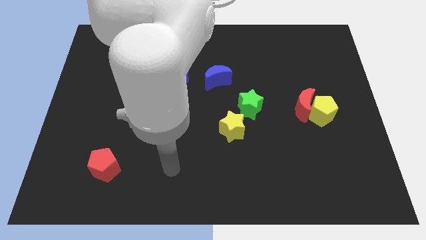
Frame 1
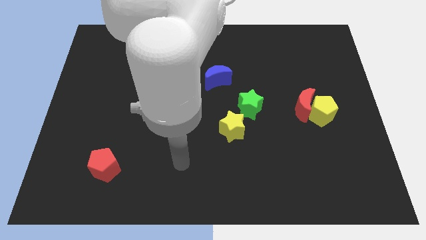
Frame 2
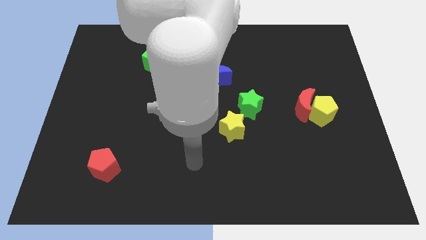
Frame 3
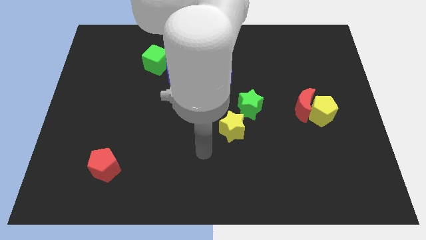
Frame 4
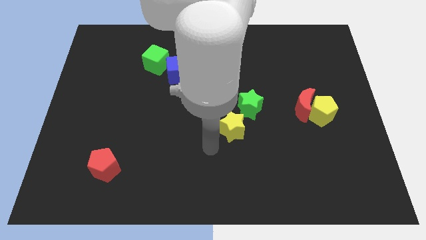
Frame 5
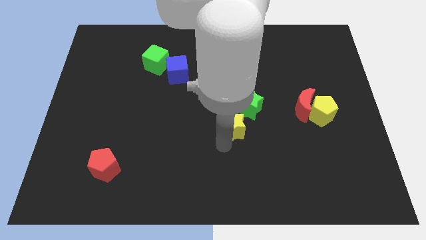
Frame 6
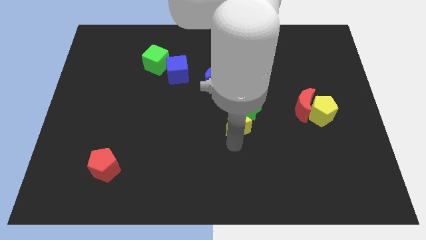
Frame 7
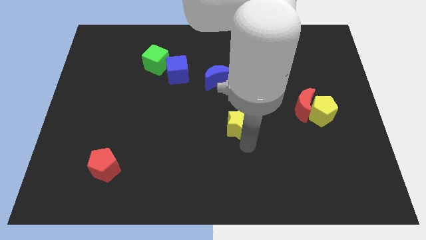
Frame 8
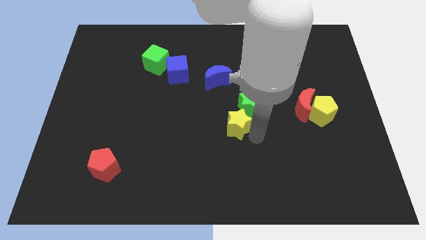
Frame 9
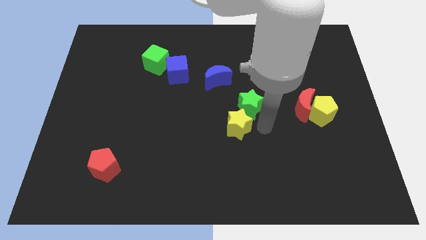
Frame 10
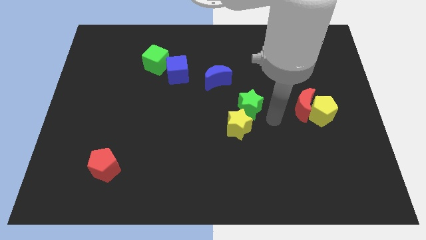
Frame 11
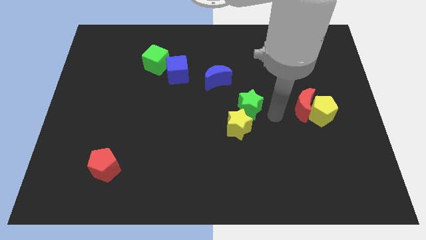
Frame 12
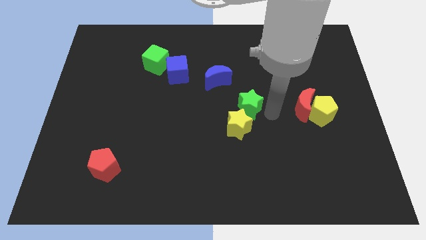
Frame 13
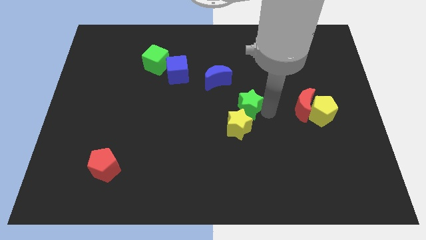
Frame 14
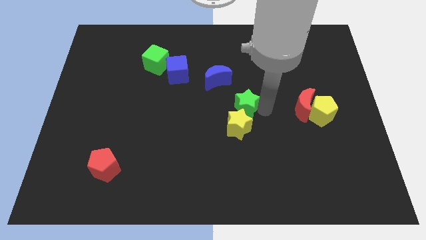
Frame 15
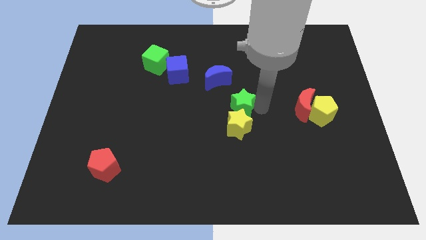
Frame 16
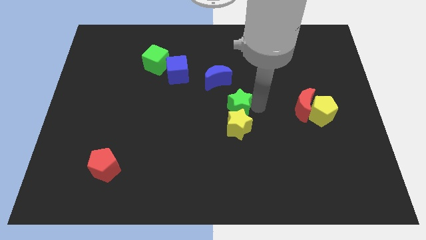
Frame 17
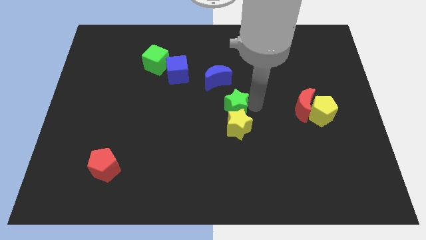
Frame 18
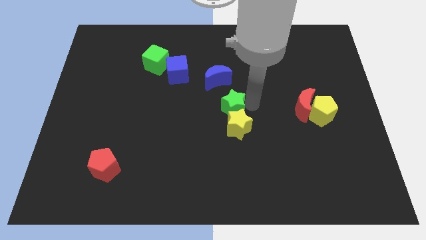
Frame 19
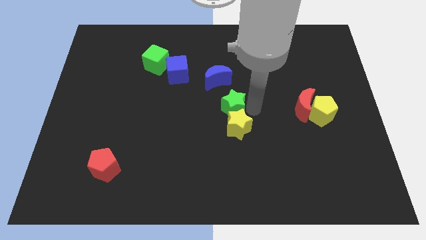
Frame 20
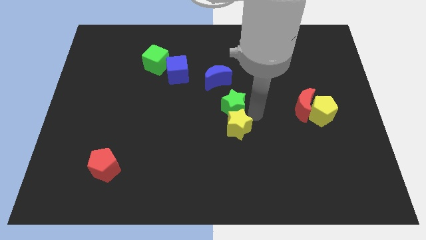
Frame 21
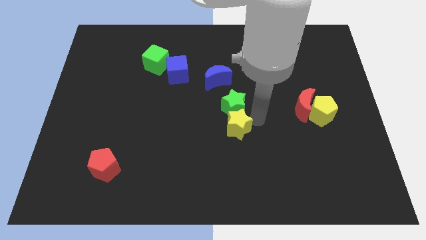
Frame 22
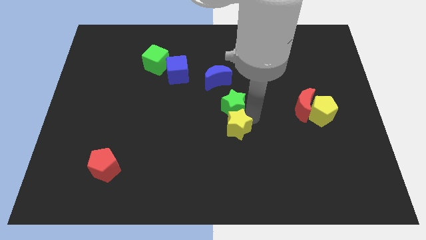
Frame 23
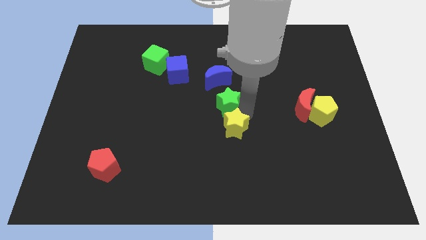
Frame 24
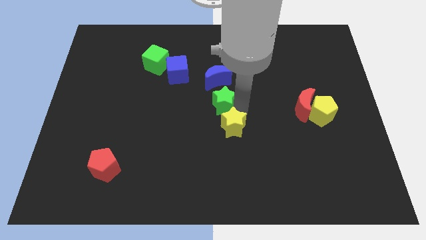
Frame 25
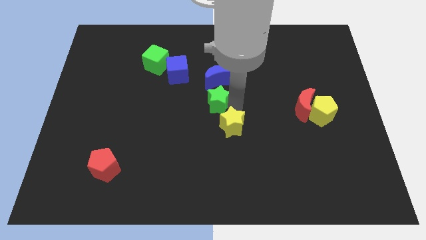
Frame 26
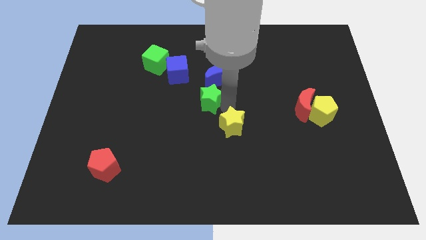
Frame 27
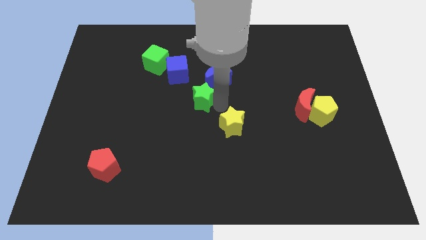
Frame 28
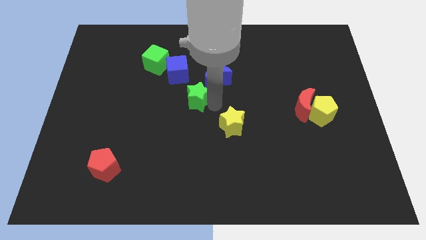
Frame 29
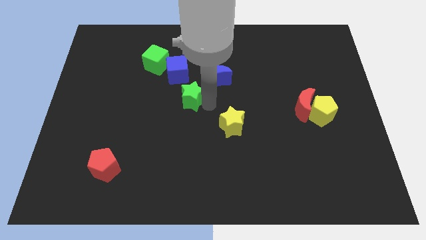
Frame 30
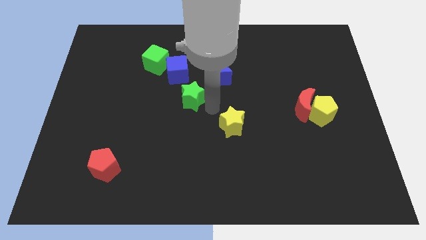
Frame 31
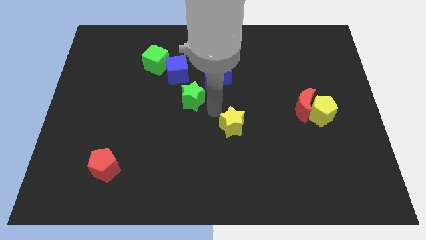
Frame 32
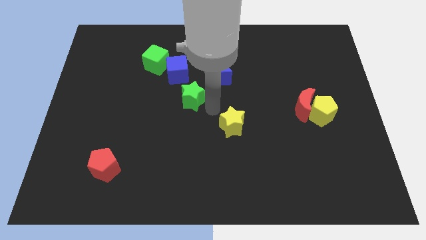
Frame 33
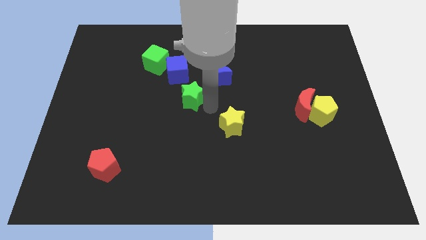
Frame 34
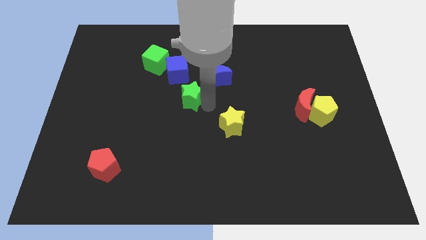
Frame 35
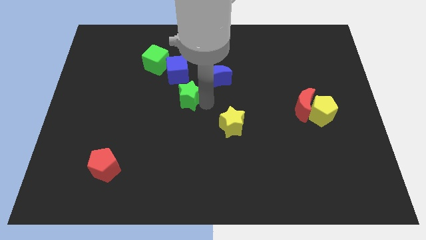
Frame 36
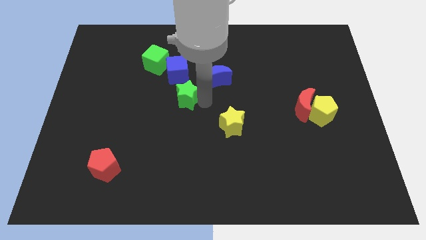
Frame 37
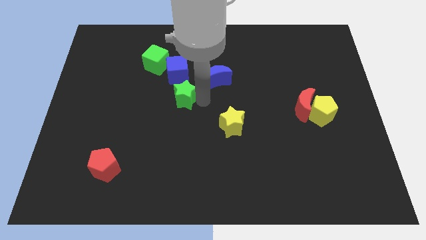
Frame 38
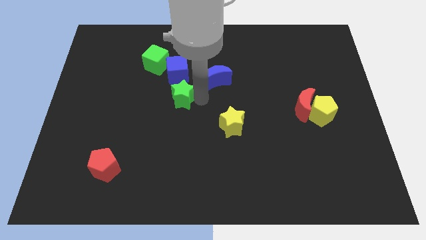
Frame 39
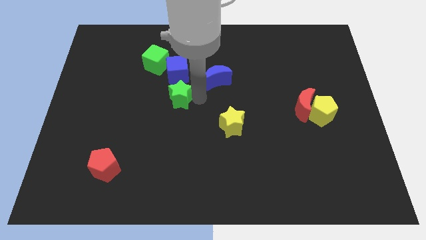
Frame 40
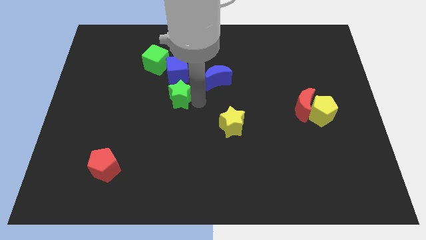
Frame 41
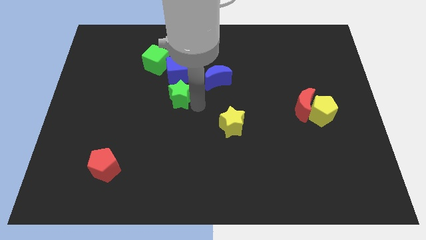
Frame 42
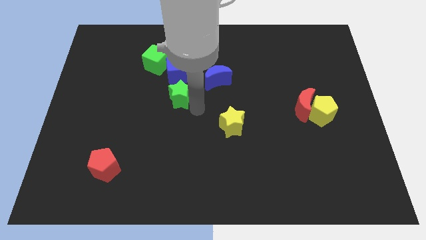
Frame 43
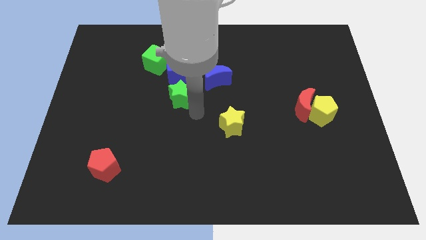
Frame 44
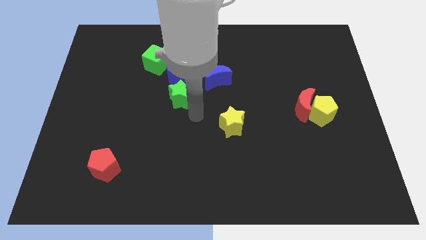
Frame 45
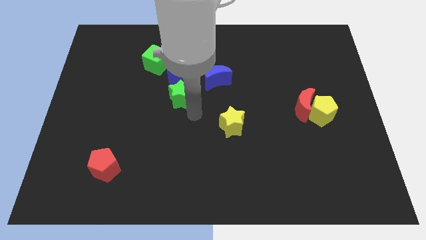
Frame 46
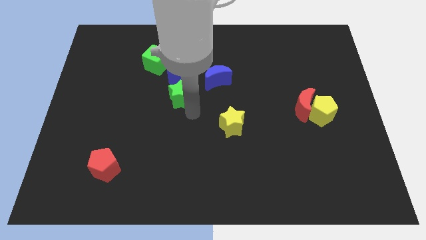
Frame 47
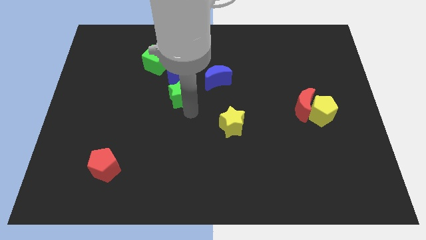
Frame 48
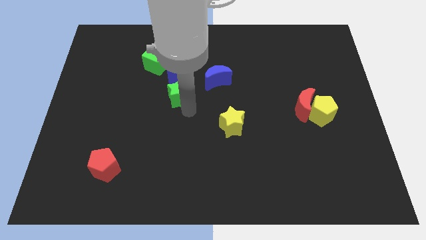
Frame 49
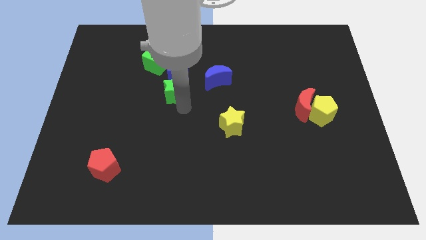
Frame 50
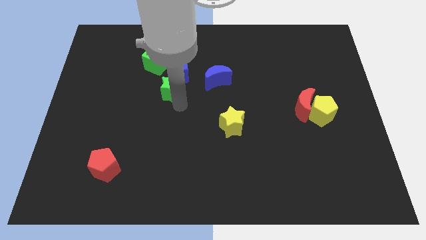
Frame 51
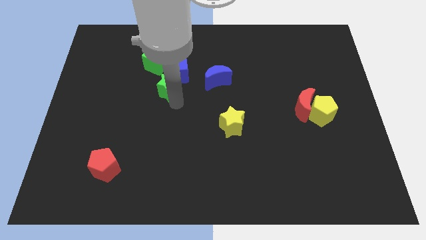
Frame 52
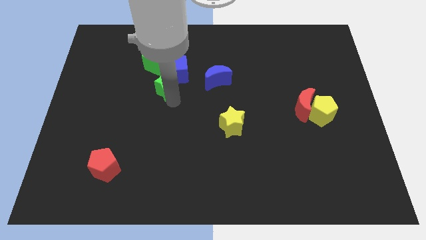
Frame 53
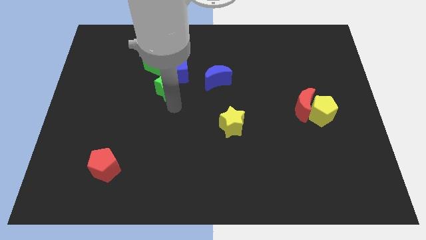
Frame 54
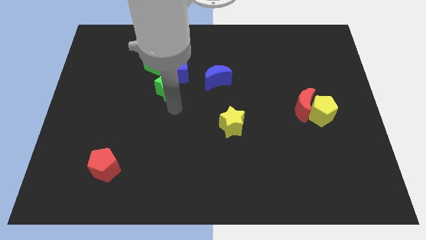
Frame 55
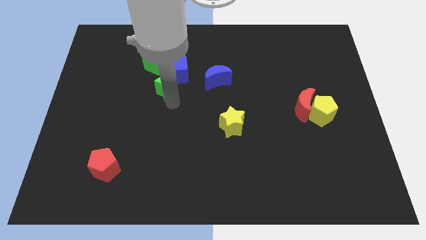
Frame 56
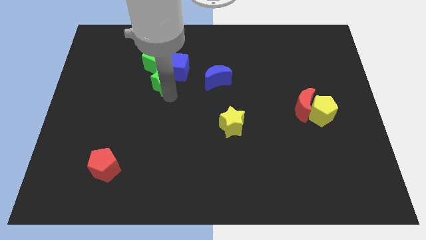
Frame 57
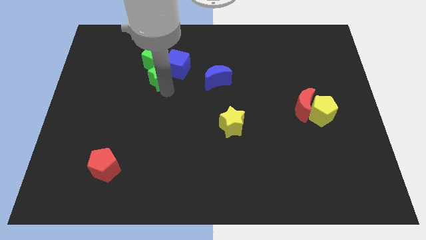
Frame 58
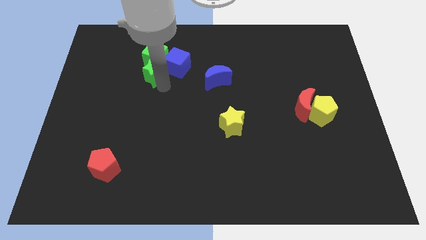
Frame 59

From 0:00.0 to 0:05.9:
slide the green star close to the green cube

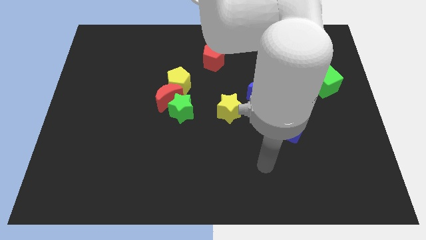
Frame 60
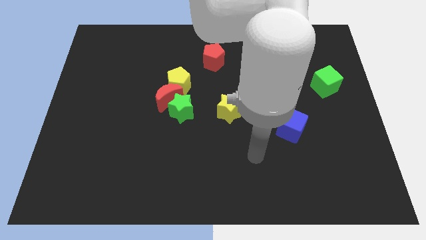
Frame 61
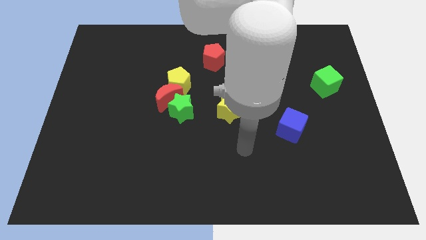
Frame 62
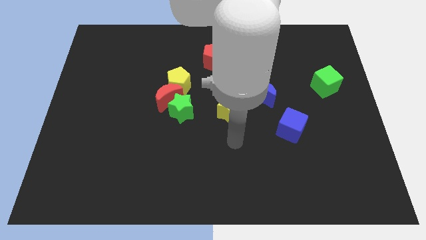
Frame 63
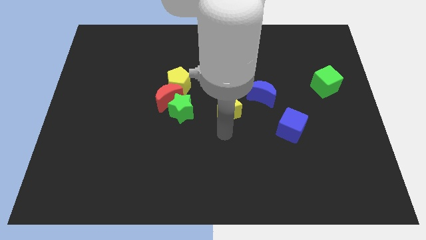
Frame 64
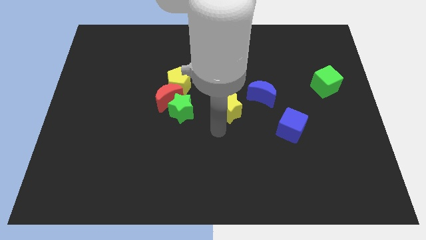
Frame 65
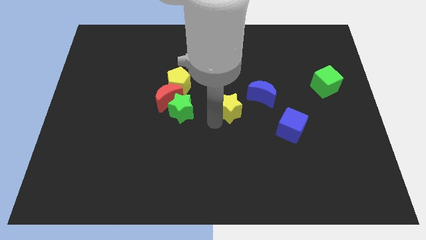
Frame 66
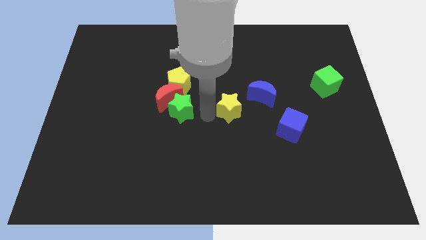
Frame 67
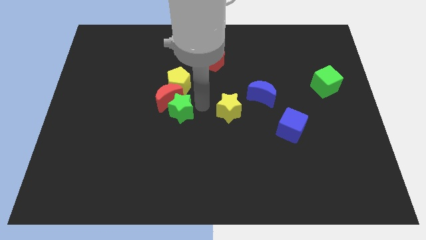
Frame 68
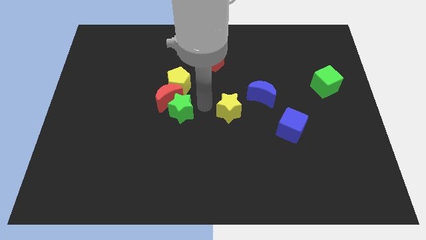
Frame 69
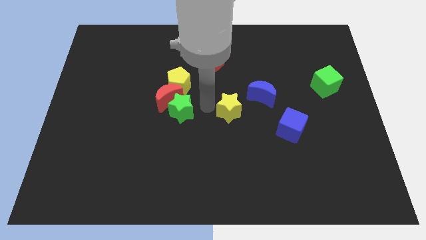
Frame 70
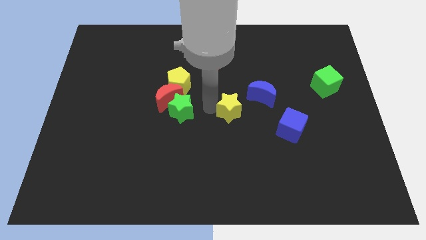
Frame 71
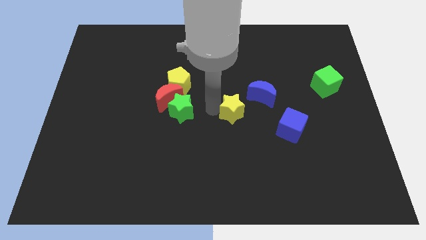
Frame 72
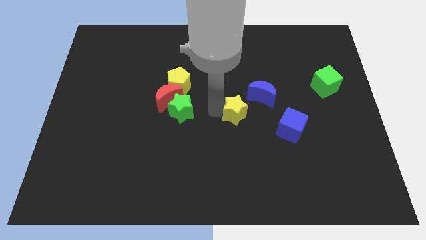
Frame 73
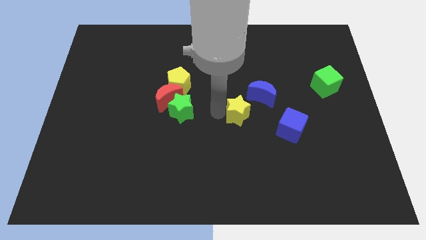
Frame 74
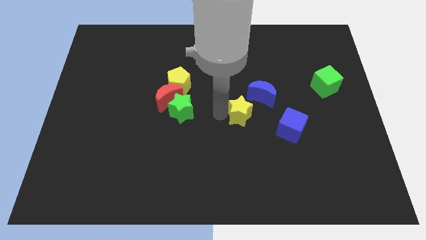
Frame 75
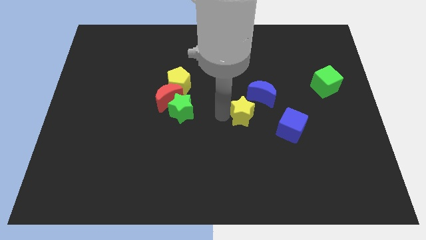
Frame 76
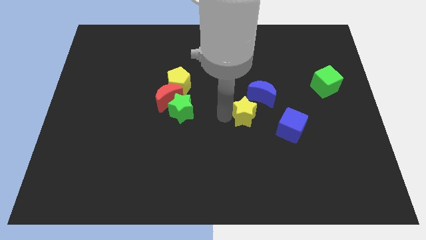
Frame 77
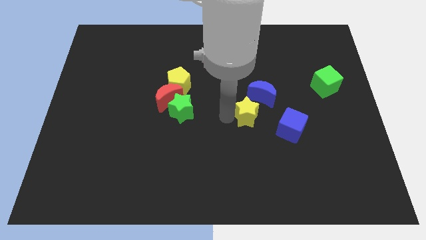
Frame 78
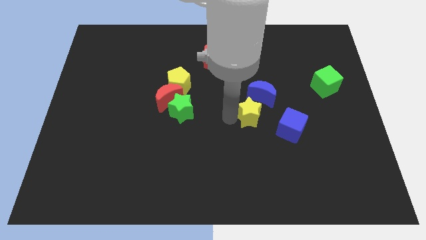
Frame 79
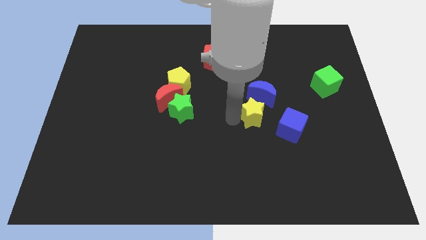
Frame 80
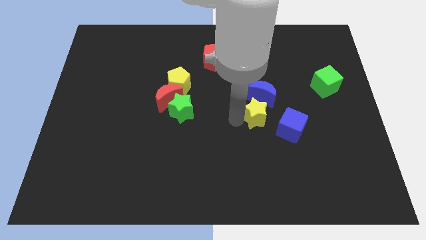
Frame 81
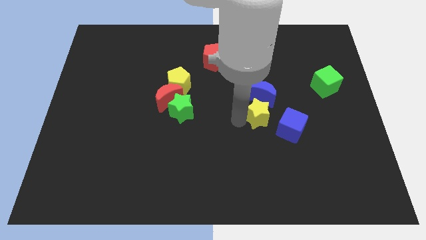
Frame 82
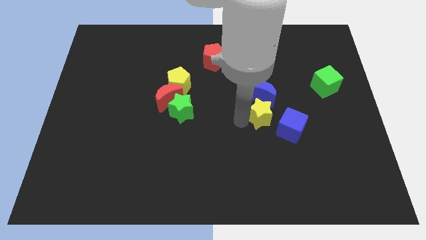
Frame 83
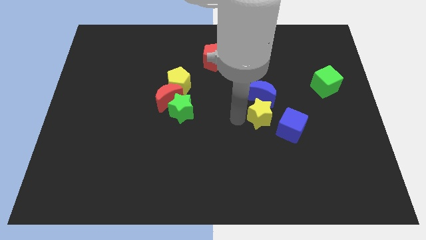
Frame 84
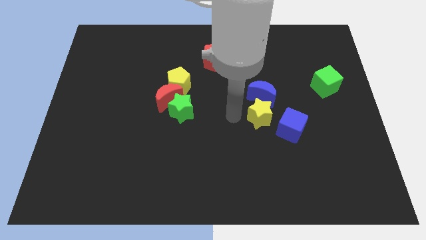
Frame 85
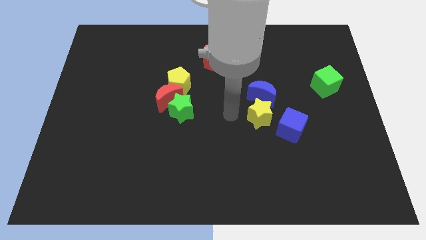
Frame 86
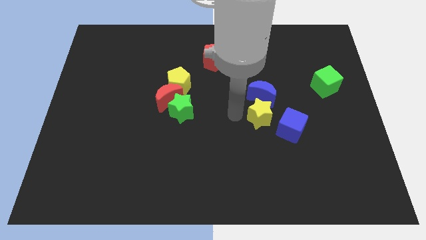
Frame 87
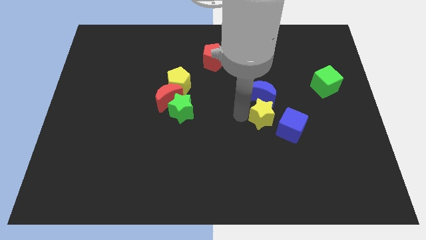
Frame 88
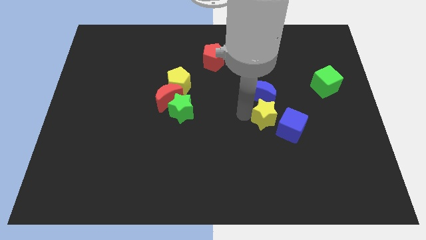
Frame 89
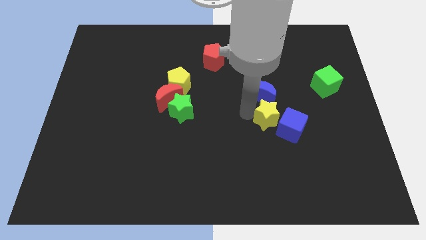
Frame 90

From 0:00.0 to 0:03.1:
push the yellow star towards the blue cube
